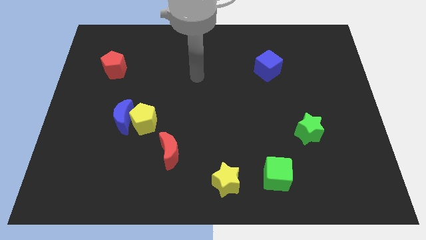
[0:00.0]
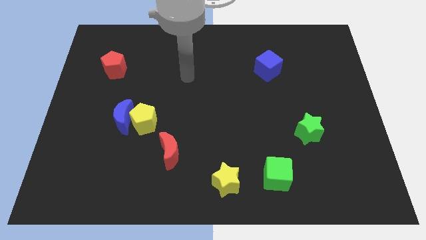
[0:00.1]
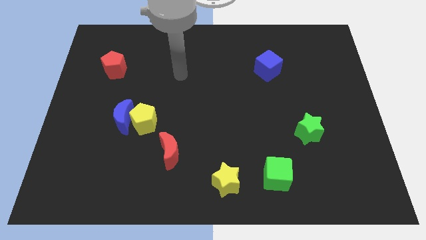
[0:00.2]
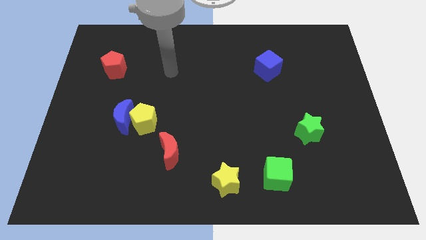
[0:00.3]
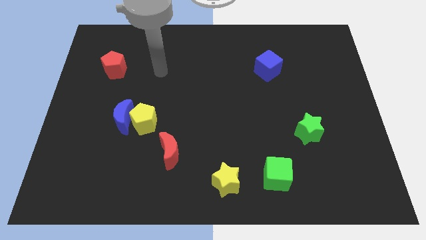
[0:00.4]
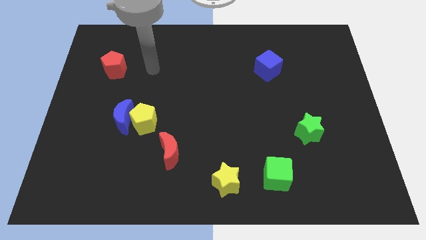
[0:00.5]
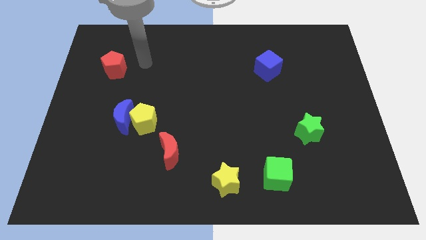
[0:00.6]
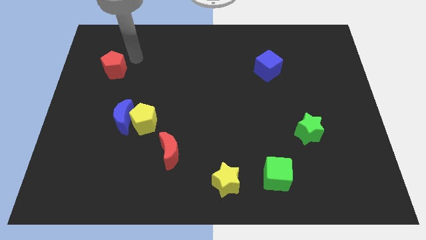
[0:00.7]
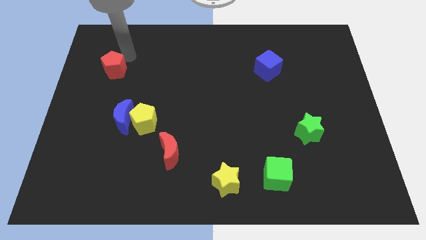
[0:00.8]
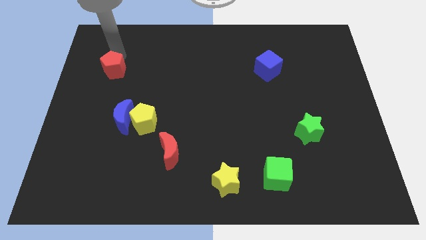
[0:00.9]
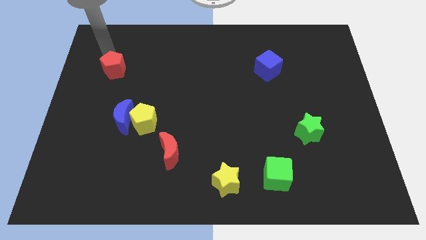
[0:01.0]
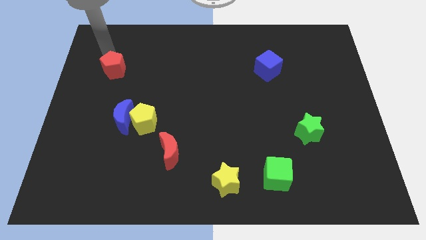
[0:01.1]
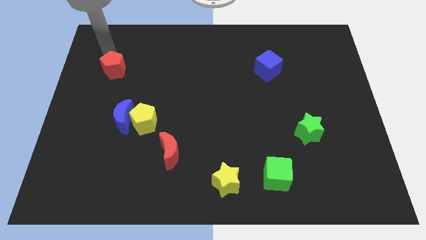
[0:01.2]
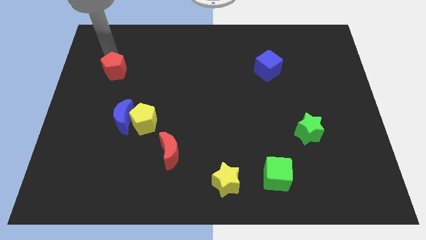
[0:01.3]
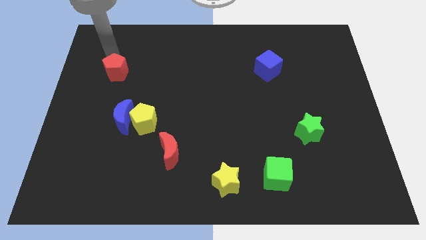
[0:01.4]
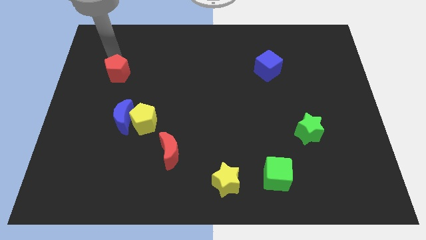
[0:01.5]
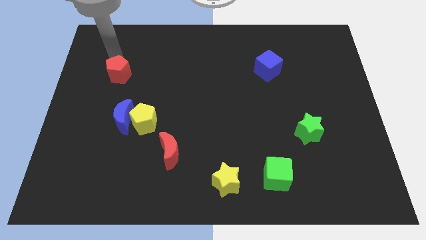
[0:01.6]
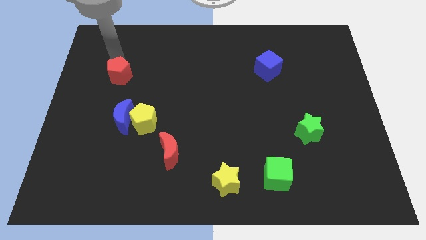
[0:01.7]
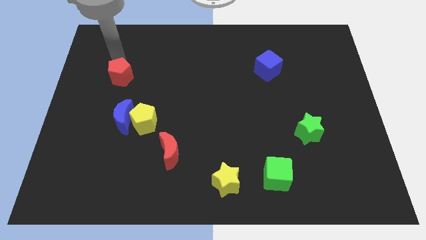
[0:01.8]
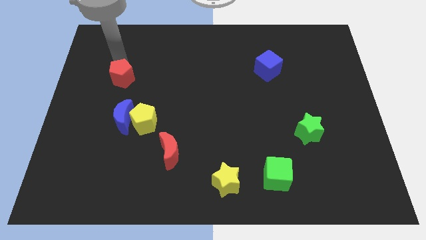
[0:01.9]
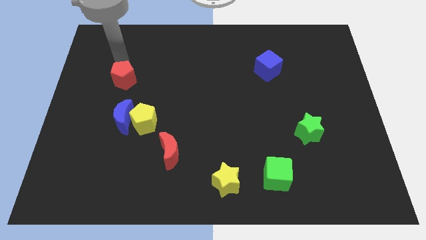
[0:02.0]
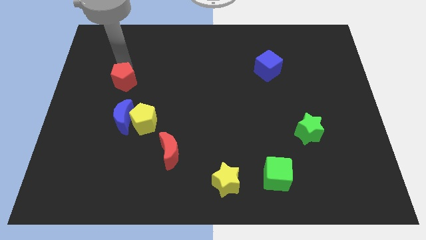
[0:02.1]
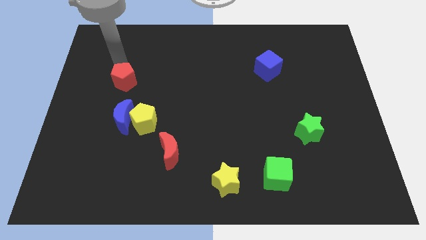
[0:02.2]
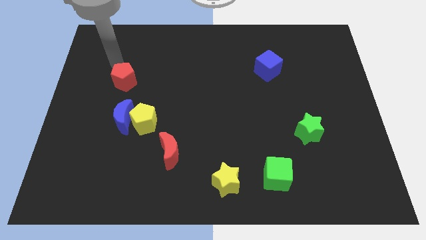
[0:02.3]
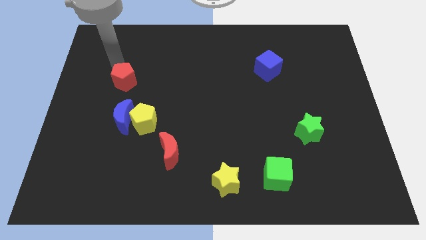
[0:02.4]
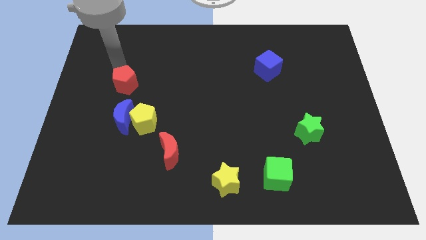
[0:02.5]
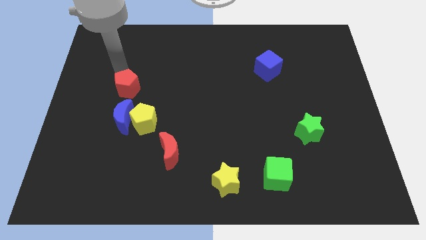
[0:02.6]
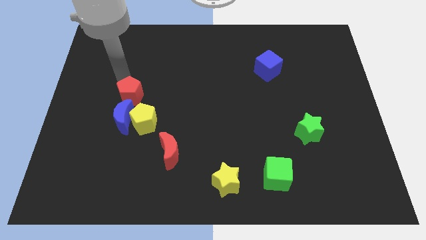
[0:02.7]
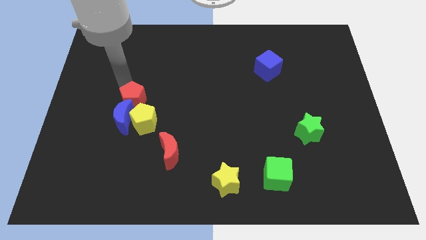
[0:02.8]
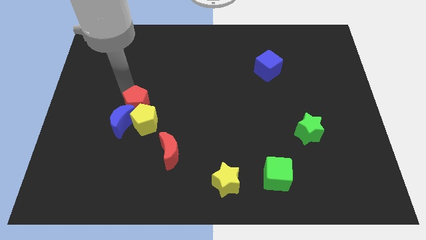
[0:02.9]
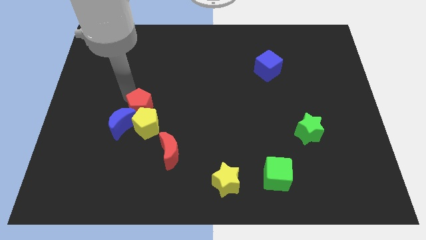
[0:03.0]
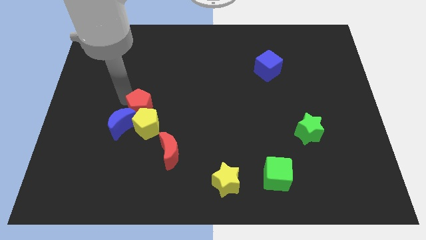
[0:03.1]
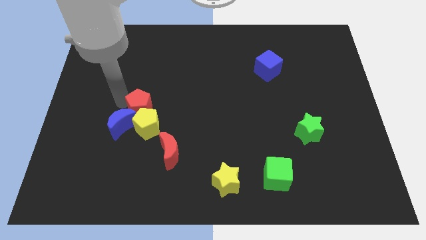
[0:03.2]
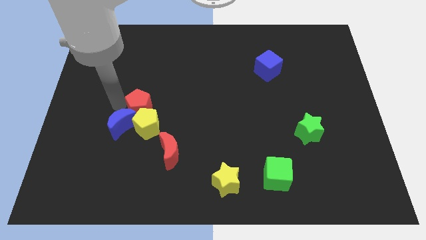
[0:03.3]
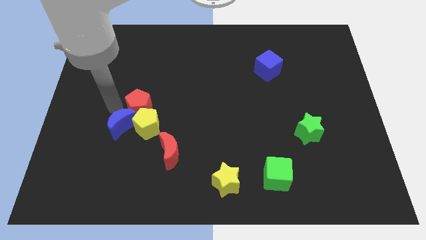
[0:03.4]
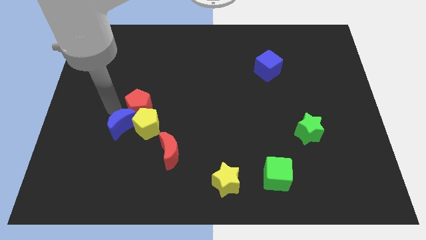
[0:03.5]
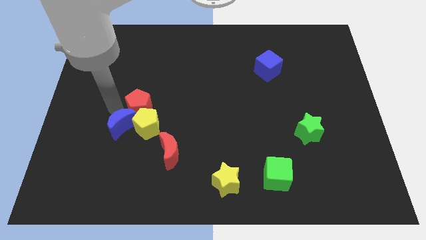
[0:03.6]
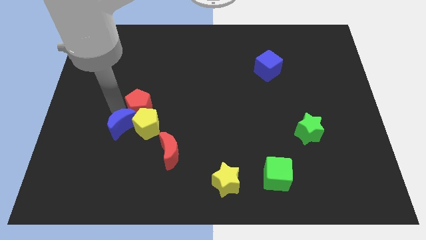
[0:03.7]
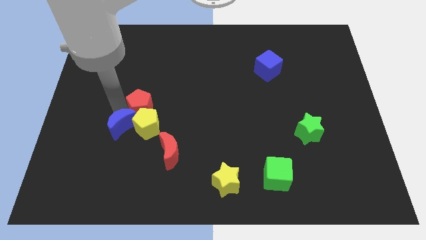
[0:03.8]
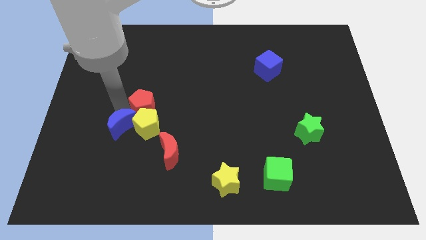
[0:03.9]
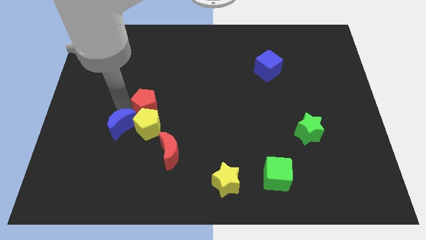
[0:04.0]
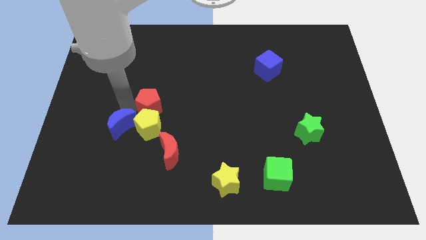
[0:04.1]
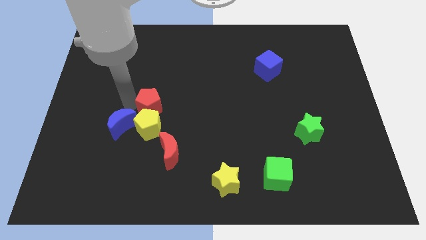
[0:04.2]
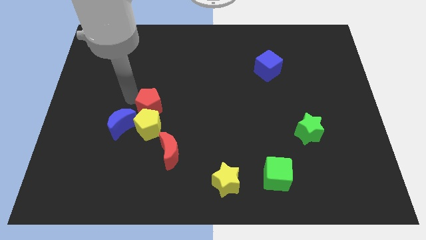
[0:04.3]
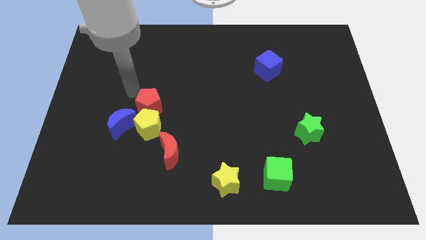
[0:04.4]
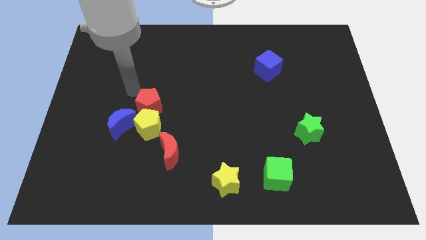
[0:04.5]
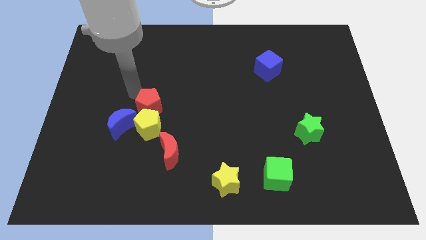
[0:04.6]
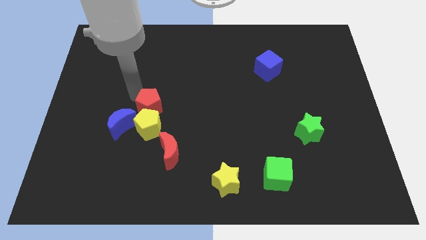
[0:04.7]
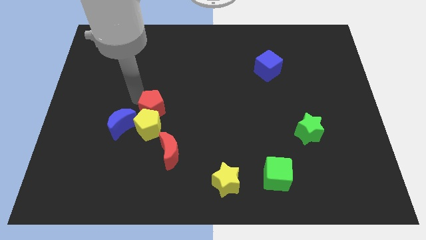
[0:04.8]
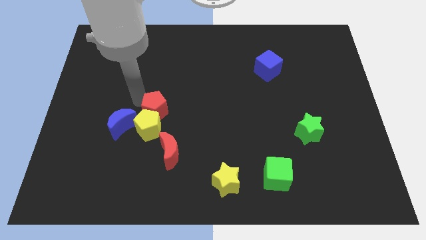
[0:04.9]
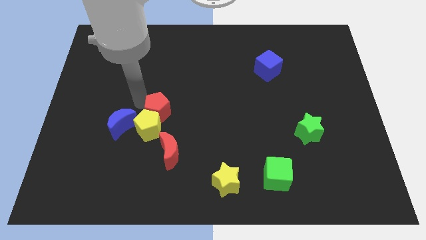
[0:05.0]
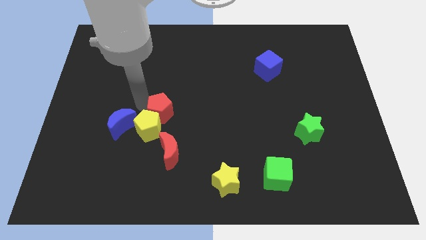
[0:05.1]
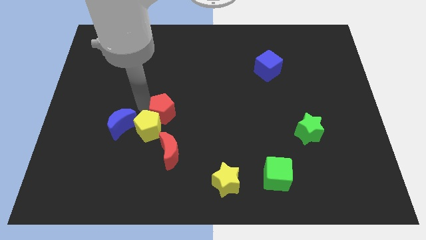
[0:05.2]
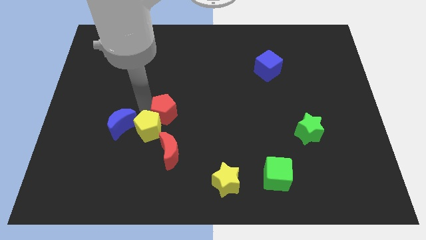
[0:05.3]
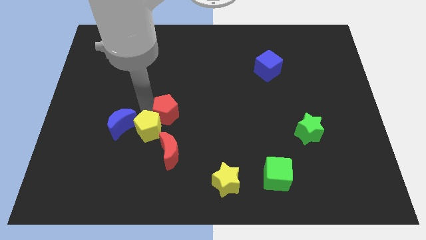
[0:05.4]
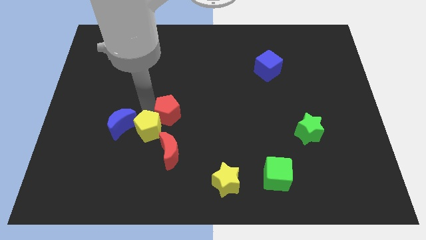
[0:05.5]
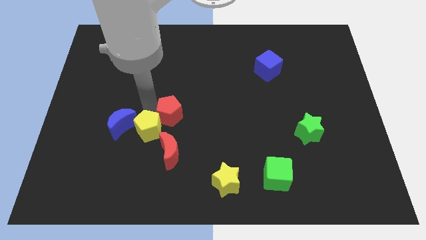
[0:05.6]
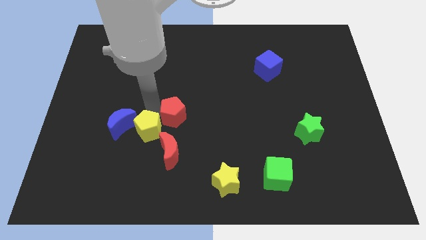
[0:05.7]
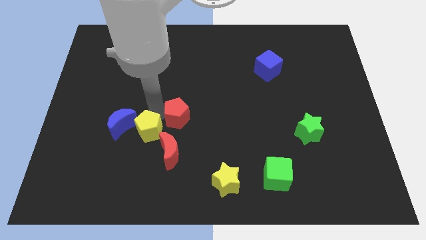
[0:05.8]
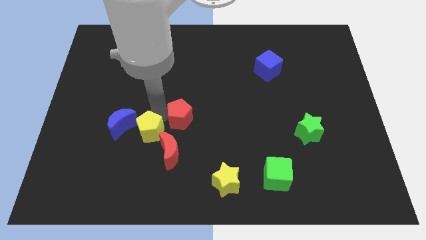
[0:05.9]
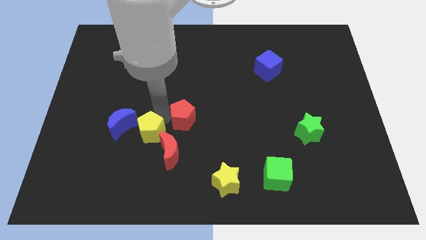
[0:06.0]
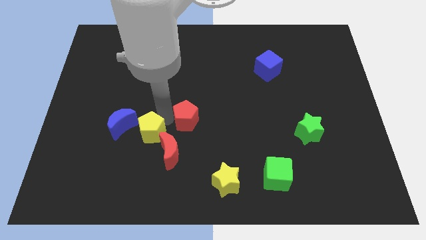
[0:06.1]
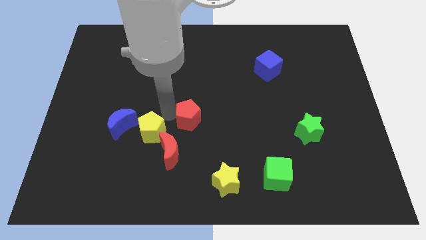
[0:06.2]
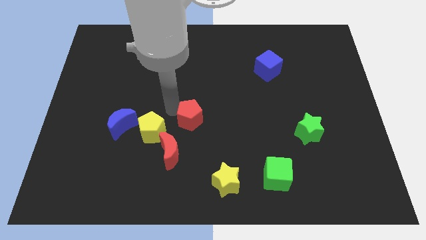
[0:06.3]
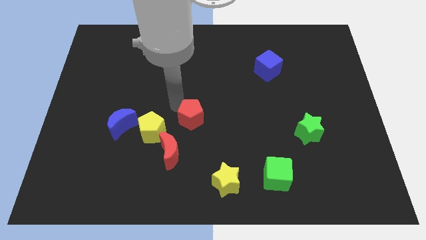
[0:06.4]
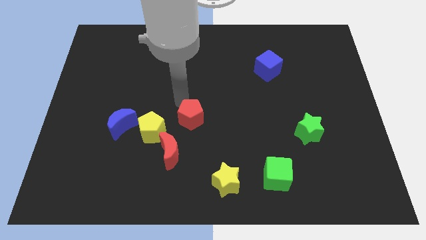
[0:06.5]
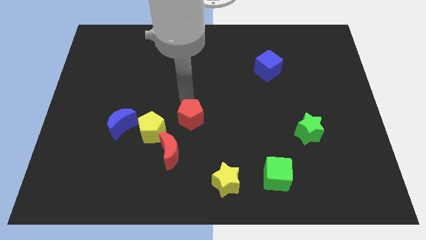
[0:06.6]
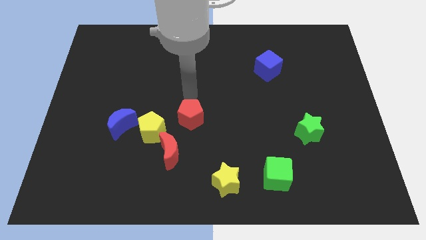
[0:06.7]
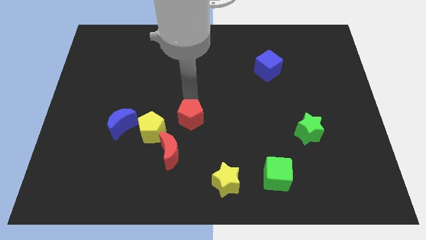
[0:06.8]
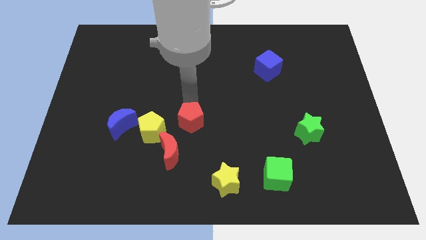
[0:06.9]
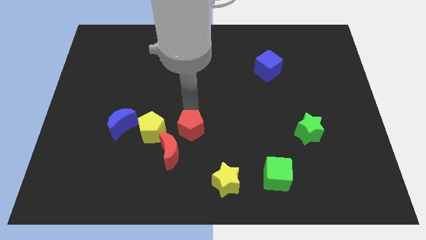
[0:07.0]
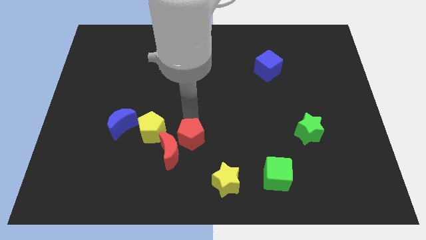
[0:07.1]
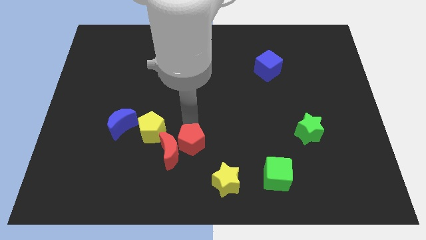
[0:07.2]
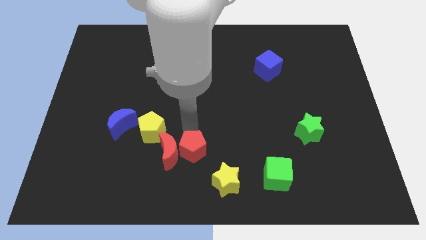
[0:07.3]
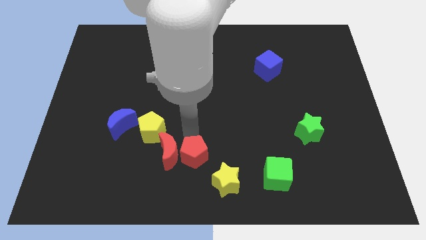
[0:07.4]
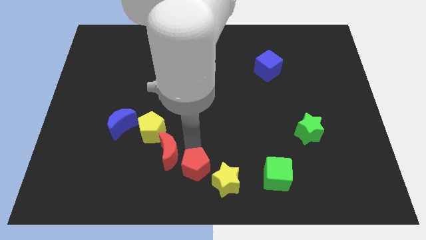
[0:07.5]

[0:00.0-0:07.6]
put the red pentagon to the bottom side
